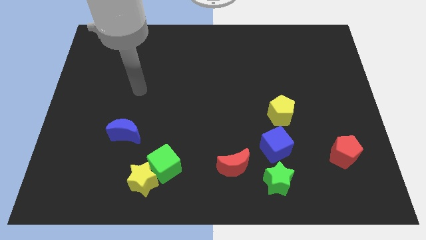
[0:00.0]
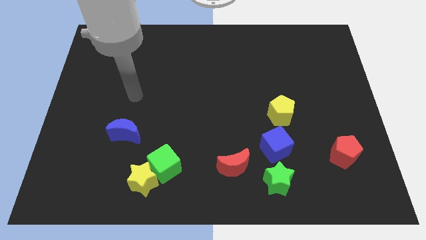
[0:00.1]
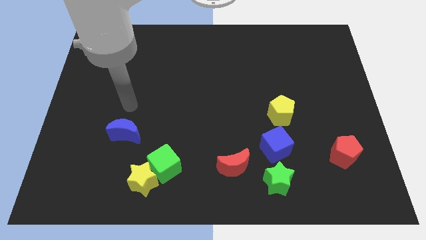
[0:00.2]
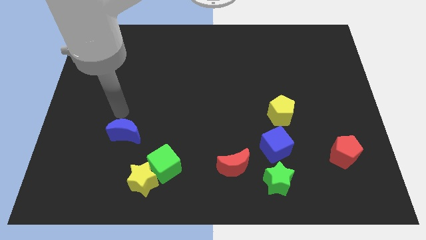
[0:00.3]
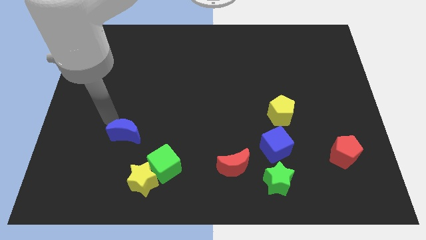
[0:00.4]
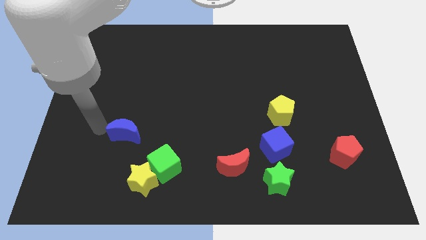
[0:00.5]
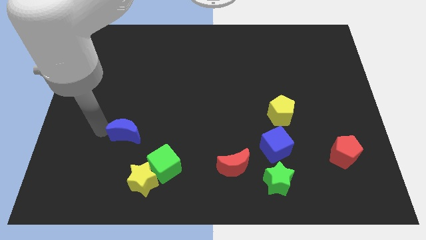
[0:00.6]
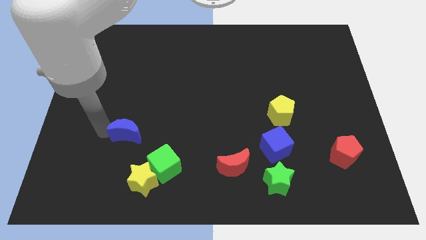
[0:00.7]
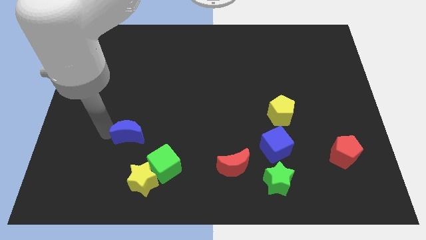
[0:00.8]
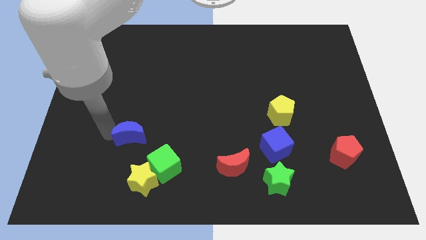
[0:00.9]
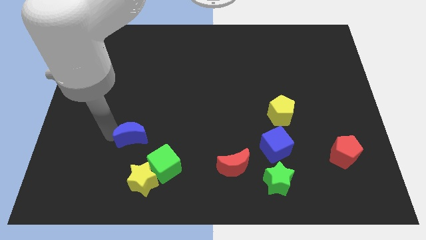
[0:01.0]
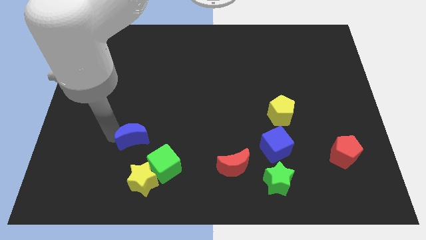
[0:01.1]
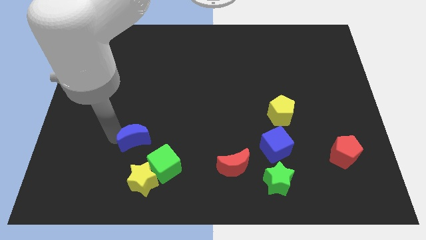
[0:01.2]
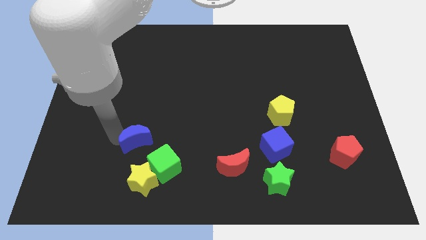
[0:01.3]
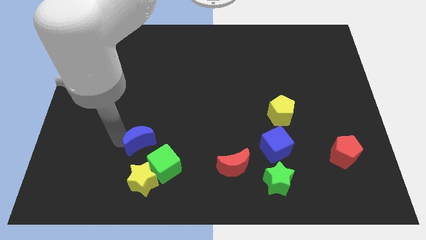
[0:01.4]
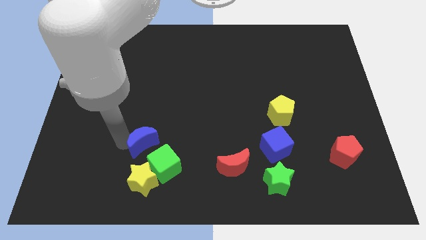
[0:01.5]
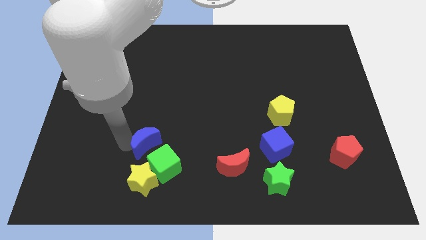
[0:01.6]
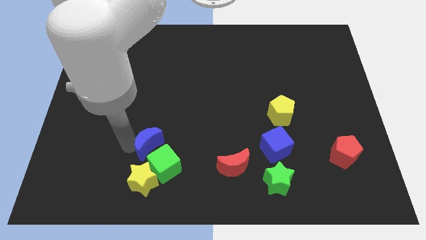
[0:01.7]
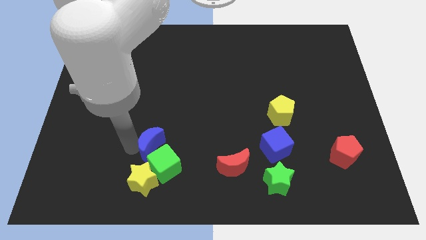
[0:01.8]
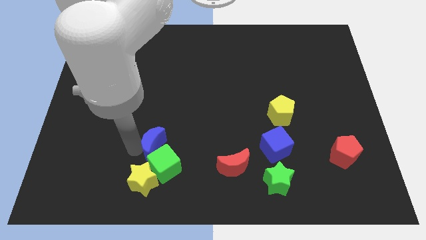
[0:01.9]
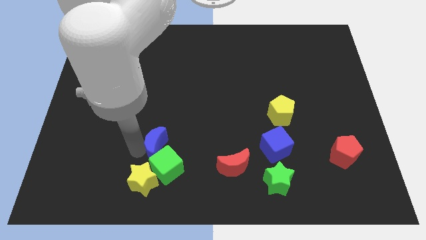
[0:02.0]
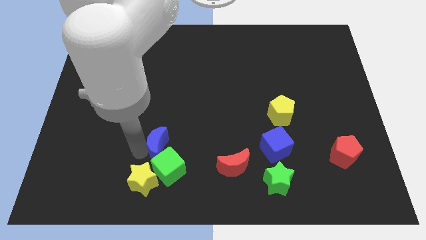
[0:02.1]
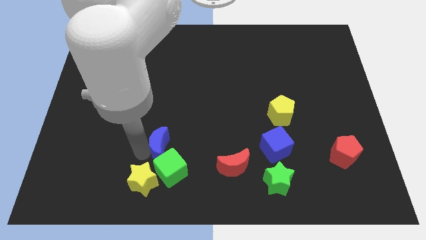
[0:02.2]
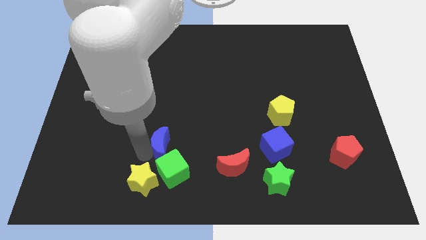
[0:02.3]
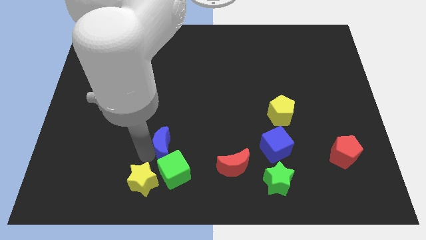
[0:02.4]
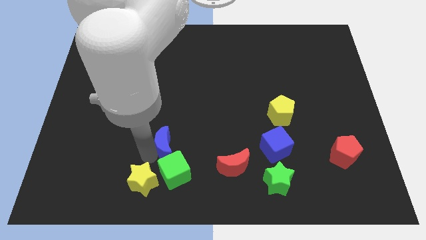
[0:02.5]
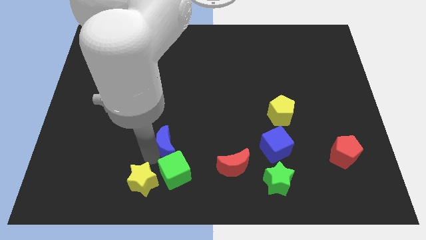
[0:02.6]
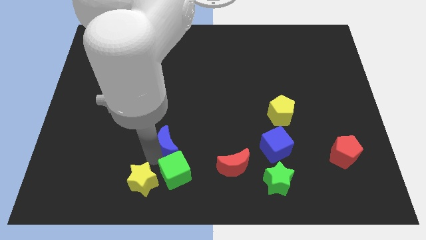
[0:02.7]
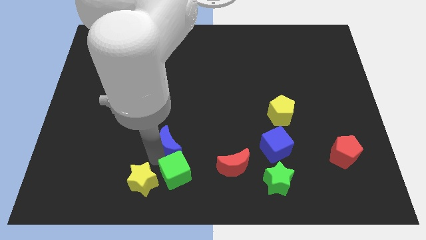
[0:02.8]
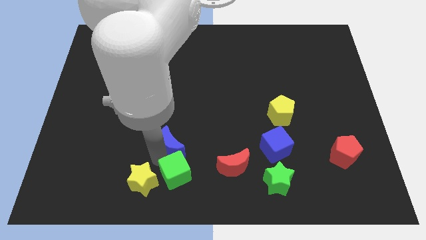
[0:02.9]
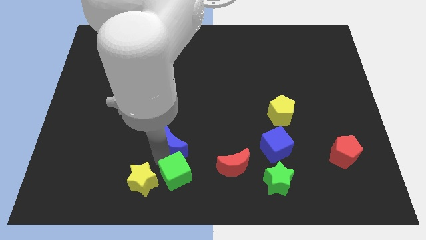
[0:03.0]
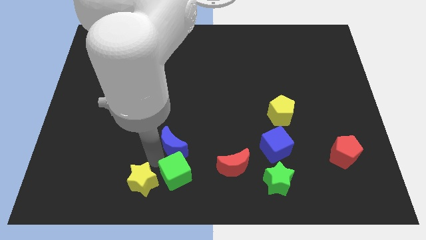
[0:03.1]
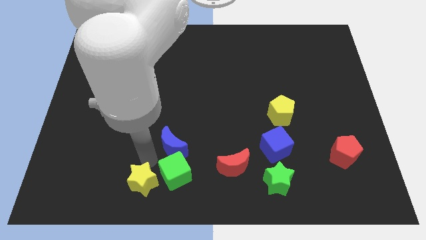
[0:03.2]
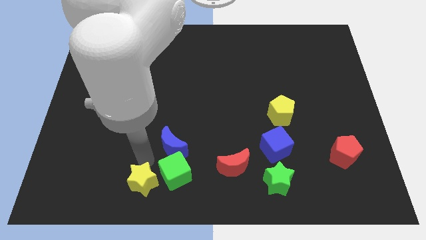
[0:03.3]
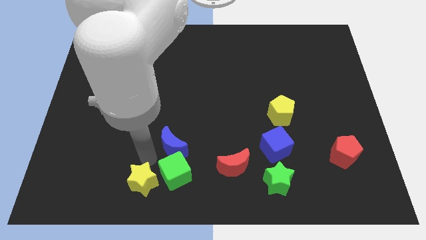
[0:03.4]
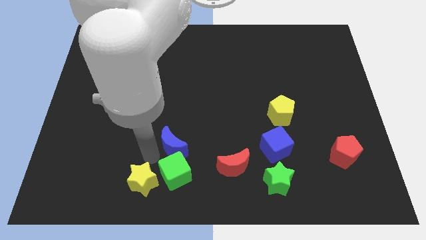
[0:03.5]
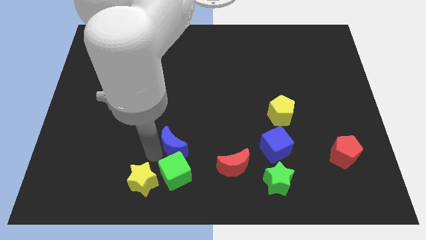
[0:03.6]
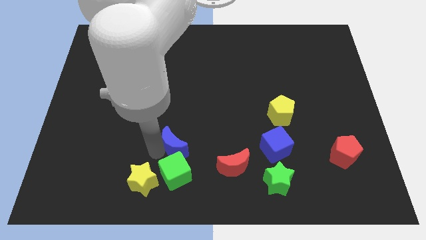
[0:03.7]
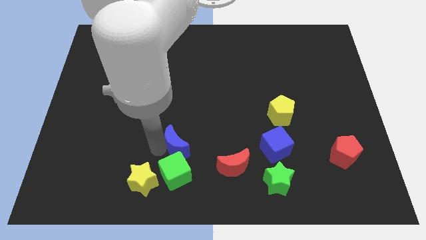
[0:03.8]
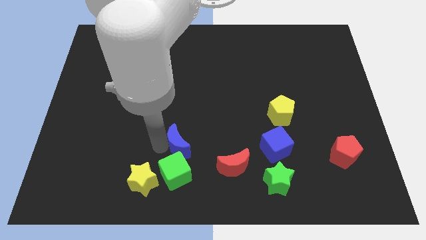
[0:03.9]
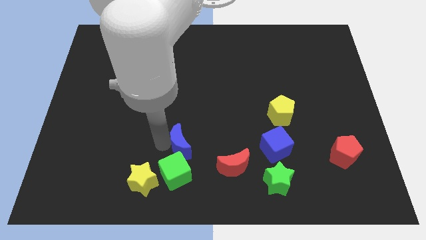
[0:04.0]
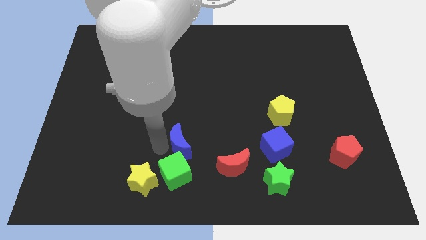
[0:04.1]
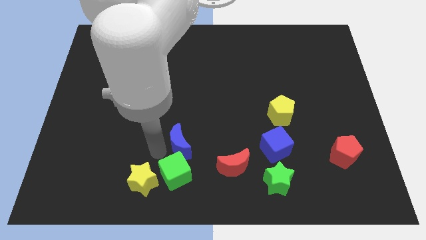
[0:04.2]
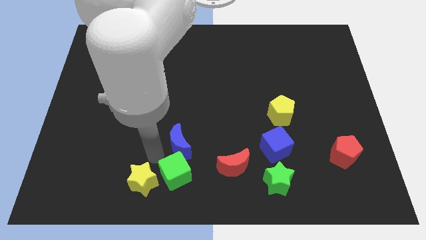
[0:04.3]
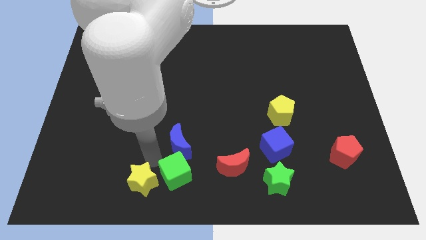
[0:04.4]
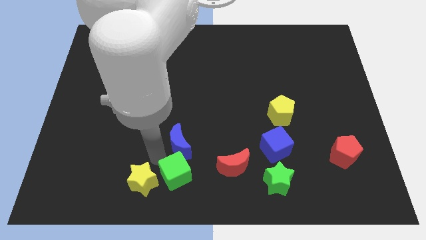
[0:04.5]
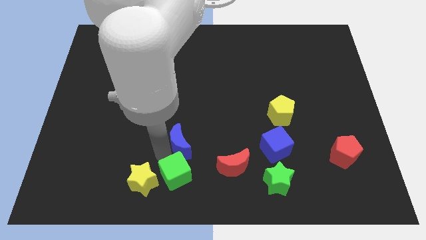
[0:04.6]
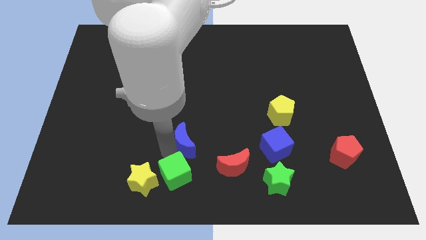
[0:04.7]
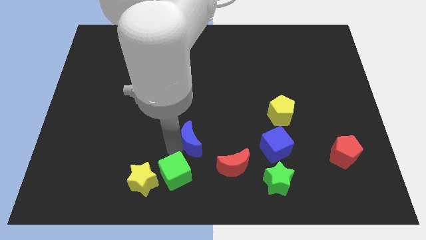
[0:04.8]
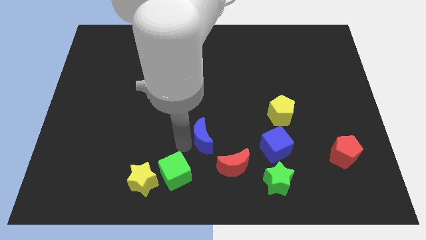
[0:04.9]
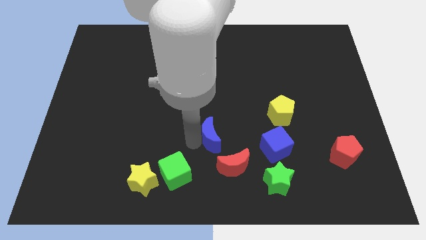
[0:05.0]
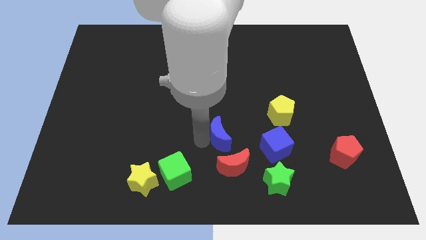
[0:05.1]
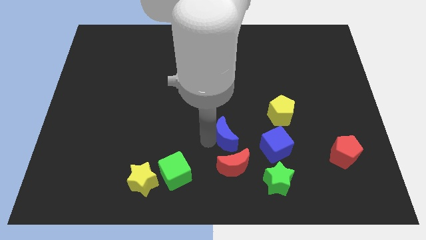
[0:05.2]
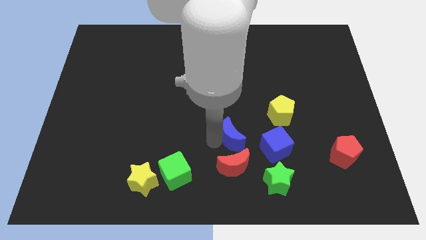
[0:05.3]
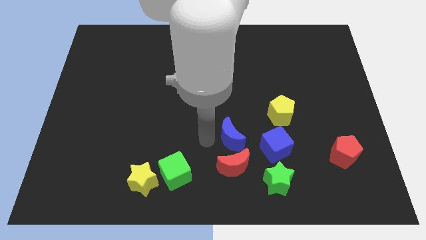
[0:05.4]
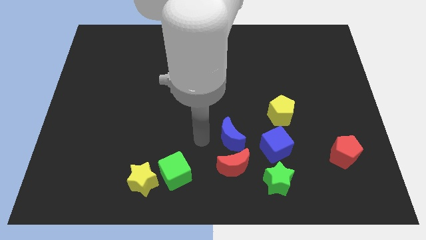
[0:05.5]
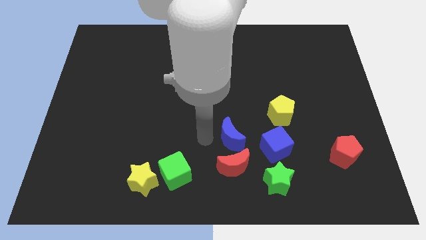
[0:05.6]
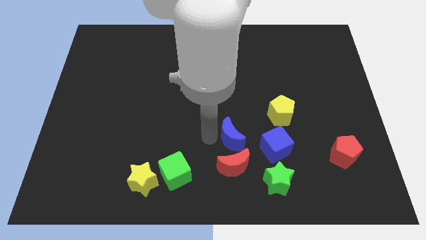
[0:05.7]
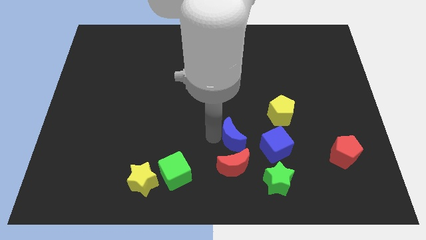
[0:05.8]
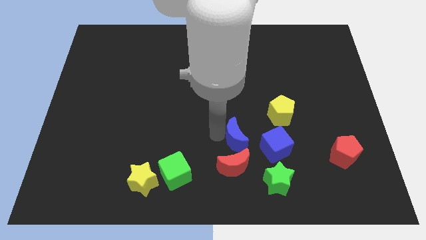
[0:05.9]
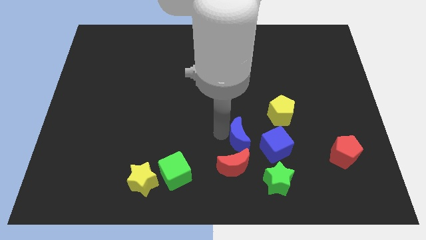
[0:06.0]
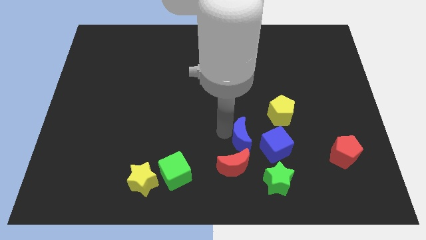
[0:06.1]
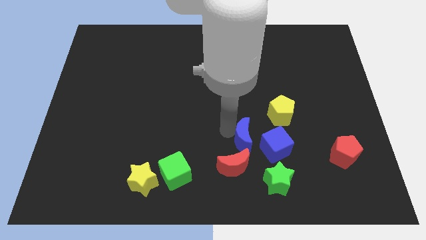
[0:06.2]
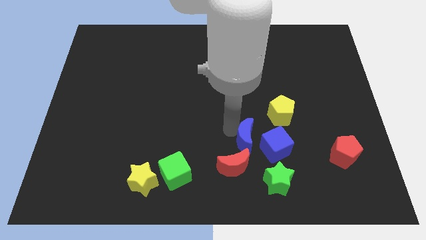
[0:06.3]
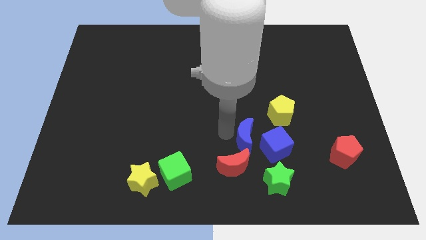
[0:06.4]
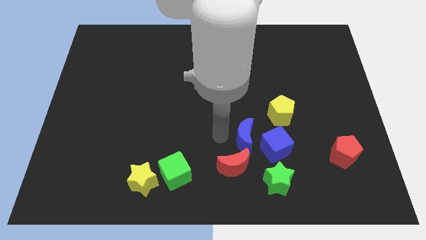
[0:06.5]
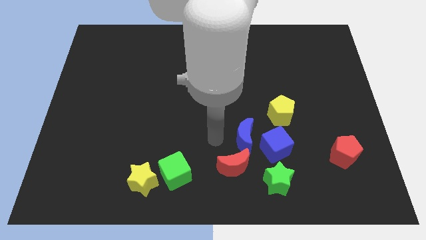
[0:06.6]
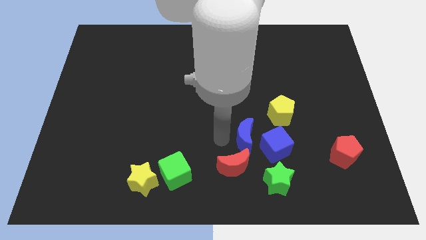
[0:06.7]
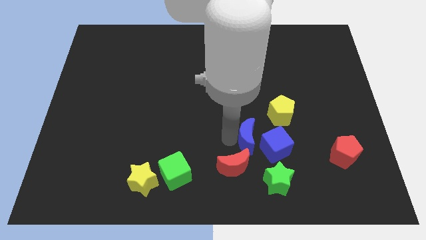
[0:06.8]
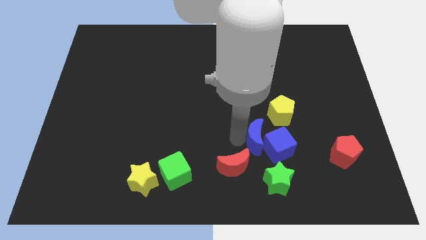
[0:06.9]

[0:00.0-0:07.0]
slide the blue moon to the top side of the green star
